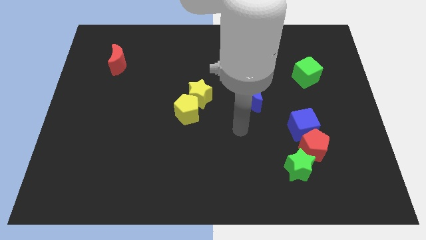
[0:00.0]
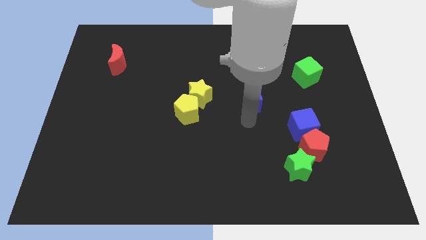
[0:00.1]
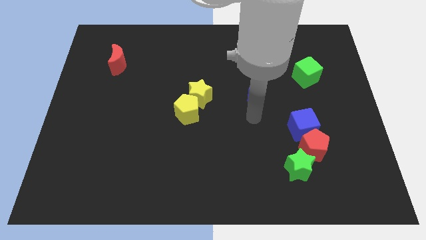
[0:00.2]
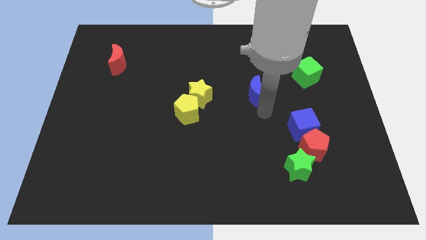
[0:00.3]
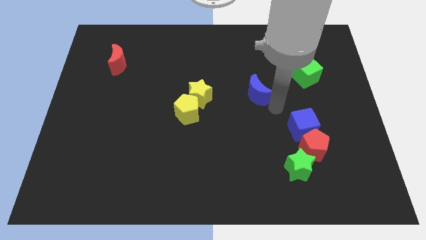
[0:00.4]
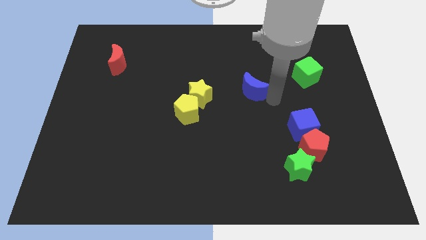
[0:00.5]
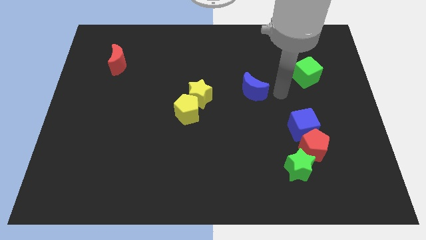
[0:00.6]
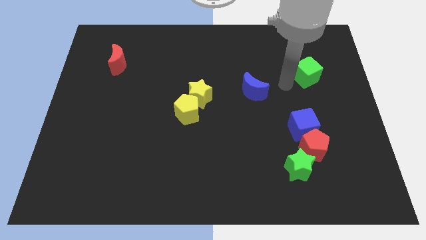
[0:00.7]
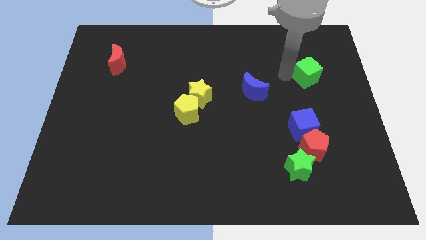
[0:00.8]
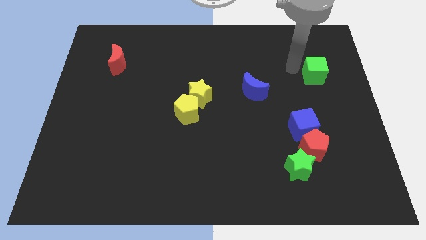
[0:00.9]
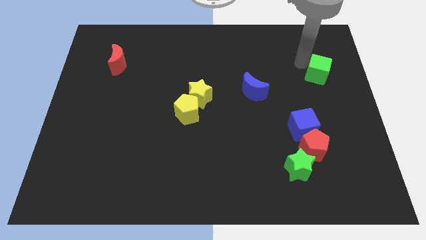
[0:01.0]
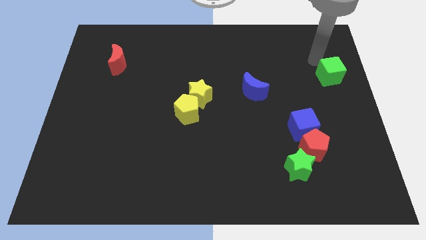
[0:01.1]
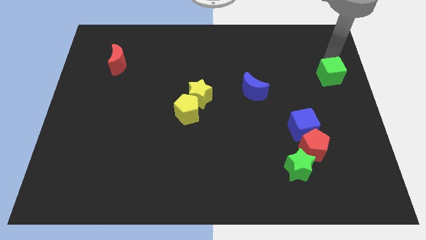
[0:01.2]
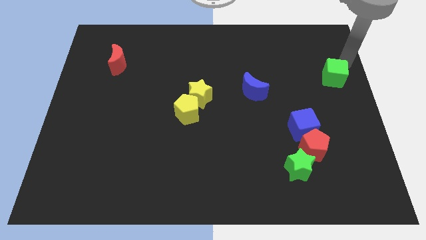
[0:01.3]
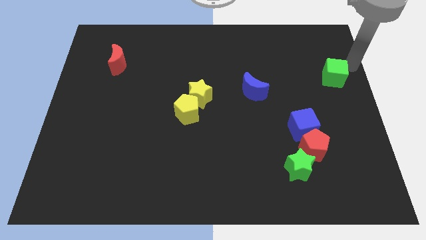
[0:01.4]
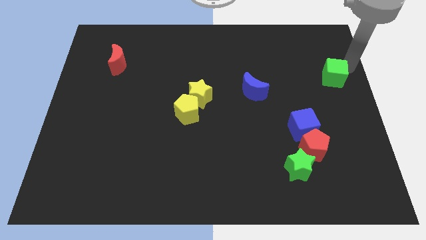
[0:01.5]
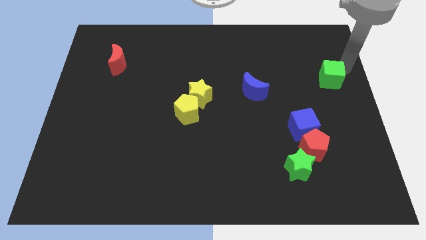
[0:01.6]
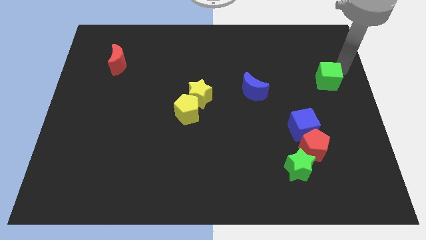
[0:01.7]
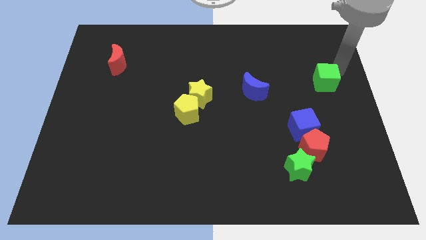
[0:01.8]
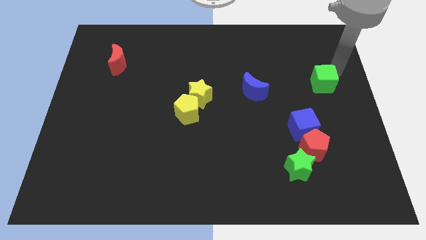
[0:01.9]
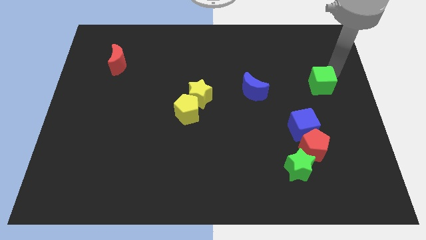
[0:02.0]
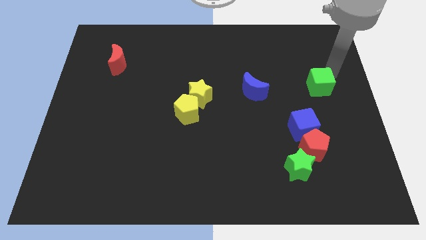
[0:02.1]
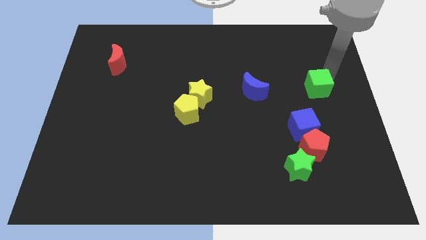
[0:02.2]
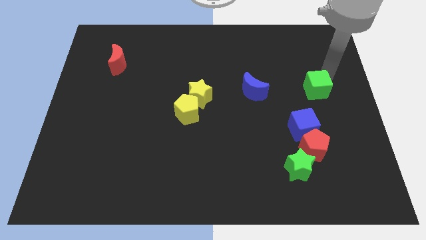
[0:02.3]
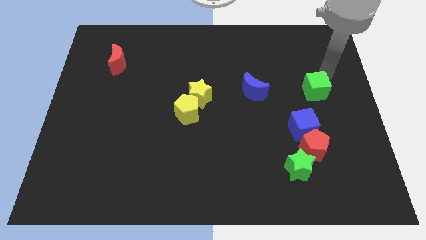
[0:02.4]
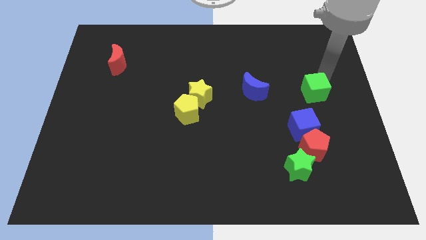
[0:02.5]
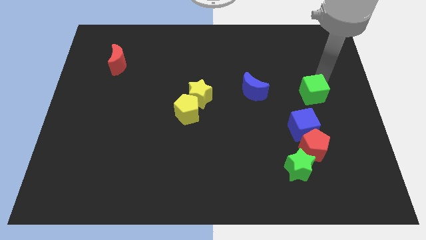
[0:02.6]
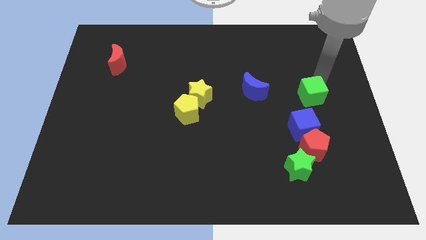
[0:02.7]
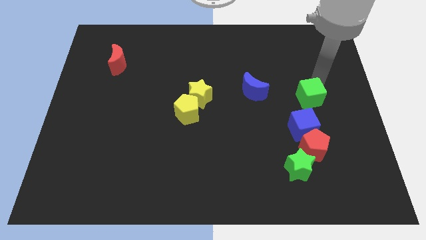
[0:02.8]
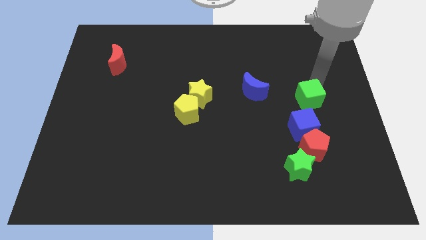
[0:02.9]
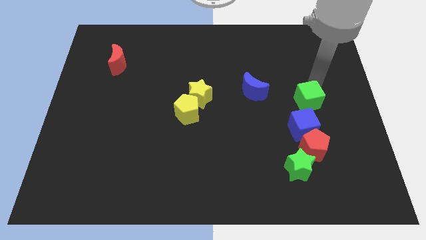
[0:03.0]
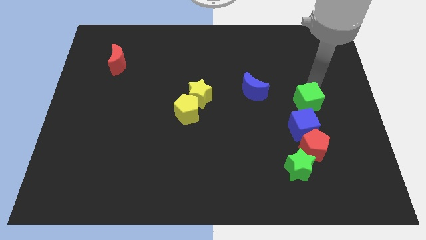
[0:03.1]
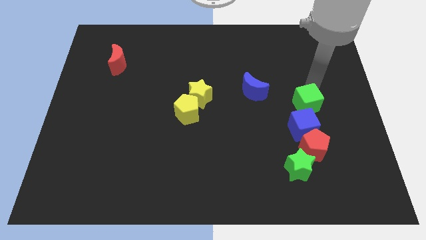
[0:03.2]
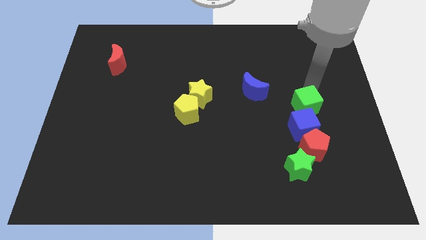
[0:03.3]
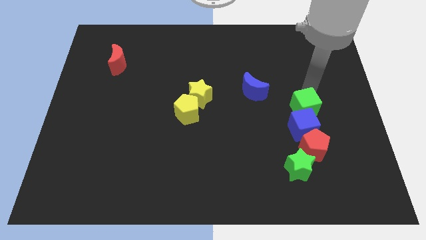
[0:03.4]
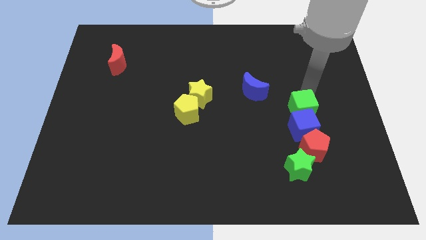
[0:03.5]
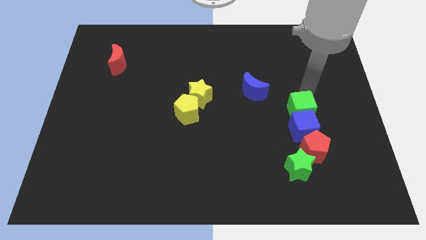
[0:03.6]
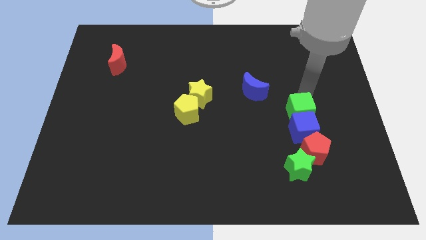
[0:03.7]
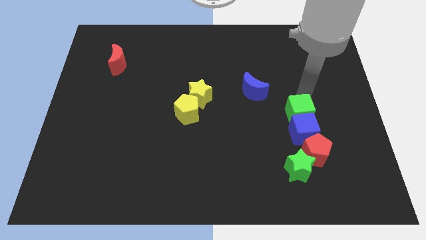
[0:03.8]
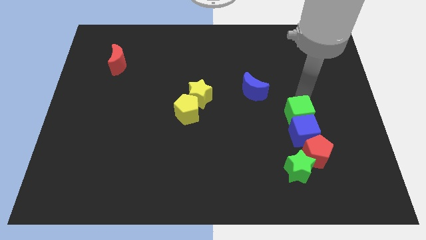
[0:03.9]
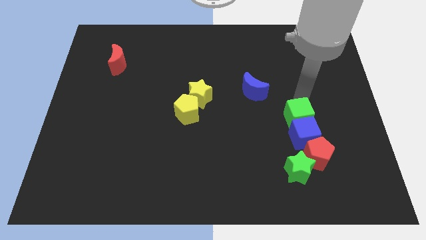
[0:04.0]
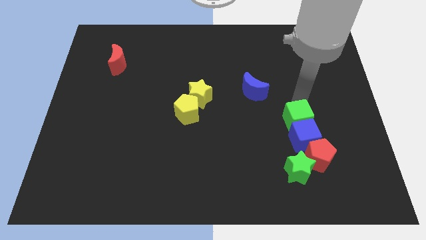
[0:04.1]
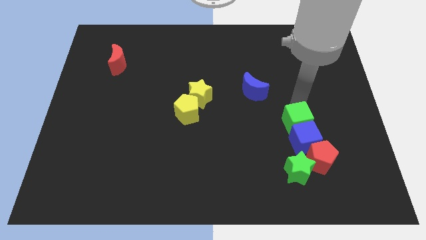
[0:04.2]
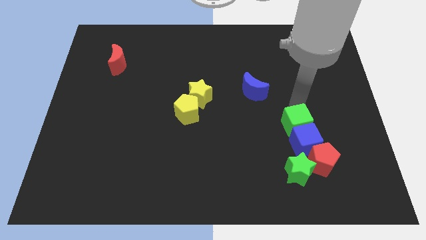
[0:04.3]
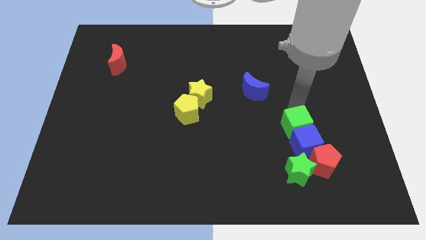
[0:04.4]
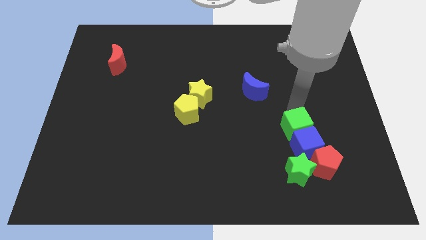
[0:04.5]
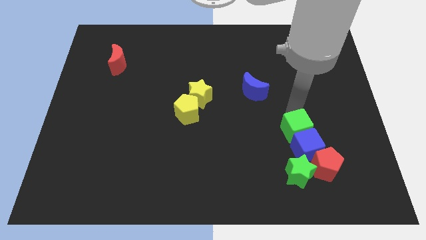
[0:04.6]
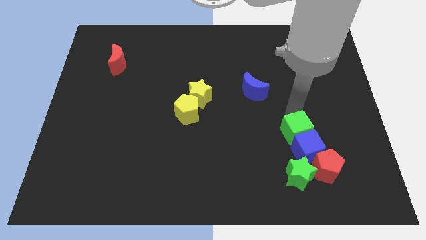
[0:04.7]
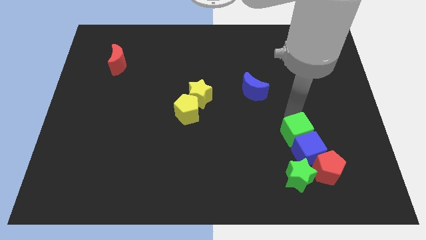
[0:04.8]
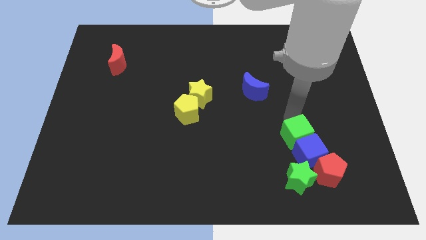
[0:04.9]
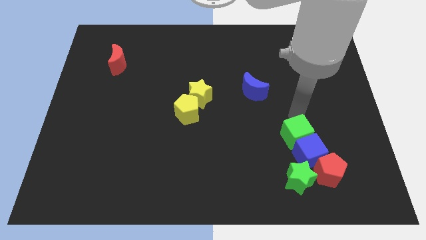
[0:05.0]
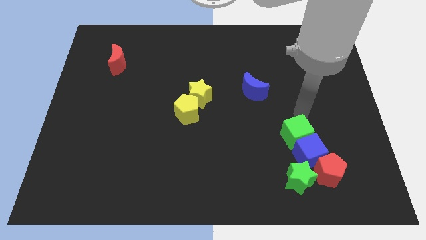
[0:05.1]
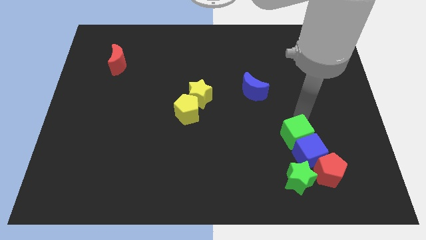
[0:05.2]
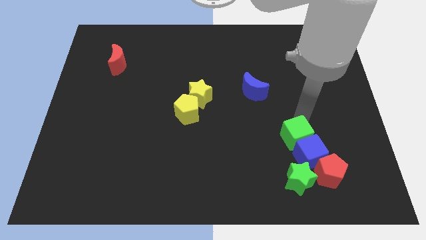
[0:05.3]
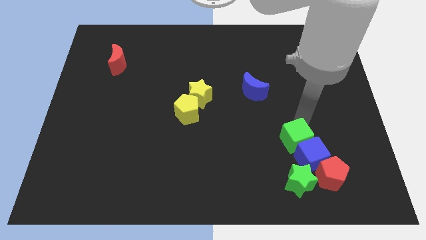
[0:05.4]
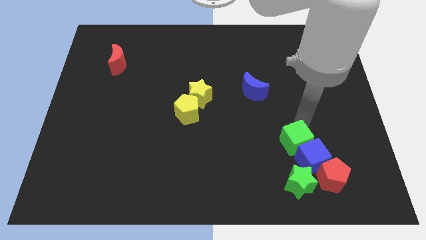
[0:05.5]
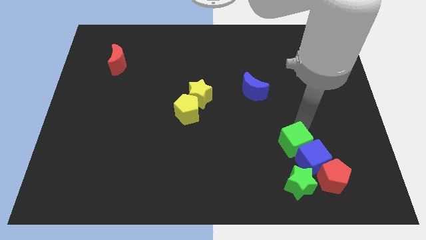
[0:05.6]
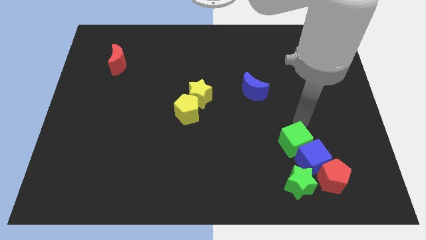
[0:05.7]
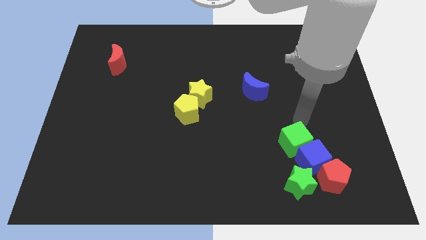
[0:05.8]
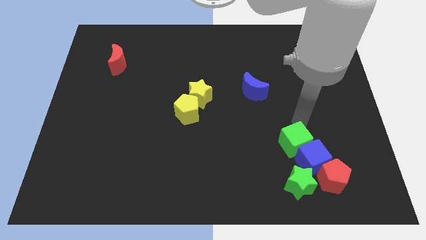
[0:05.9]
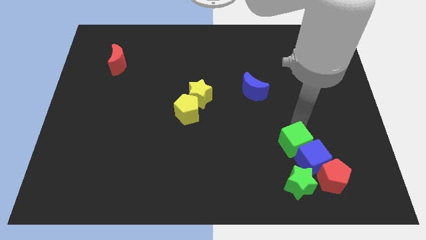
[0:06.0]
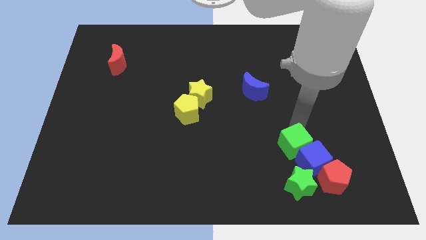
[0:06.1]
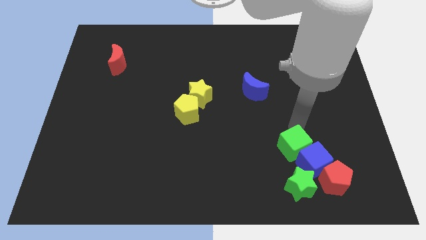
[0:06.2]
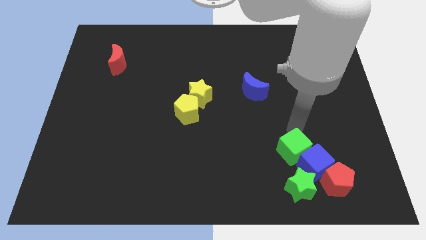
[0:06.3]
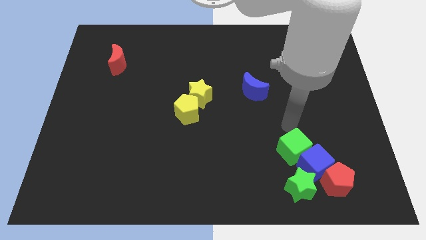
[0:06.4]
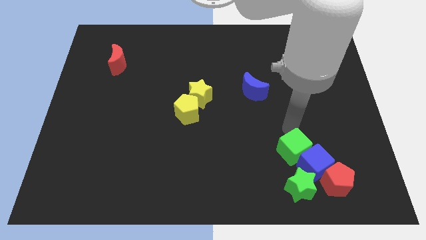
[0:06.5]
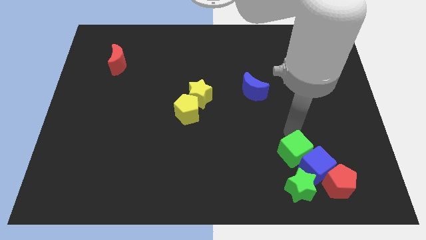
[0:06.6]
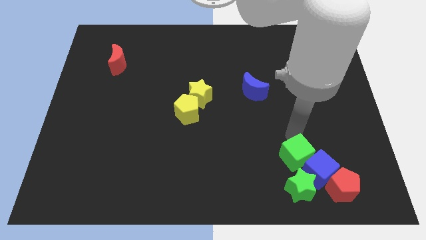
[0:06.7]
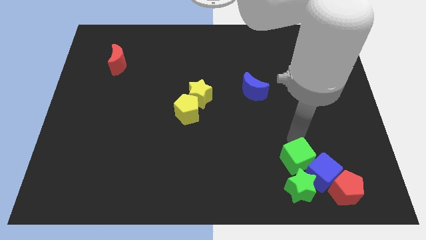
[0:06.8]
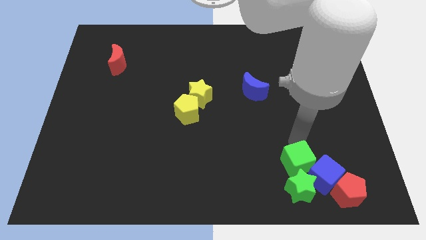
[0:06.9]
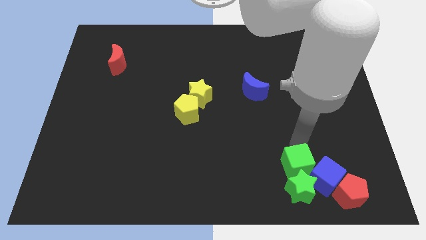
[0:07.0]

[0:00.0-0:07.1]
push the green cube to the green star

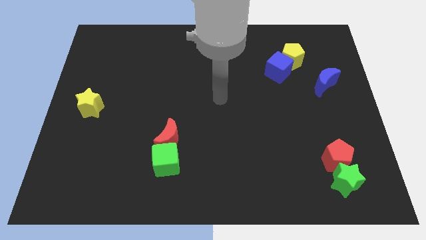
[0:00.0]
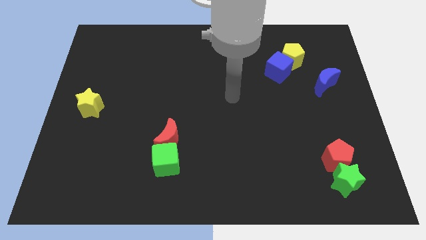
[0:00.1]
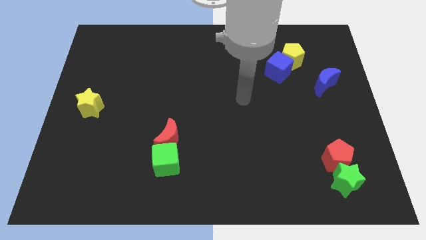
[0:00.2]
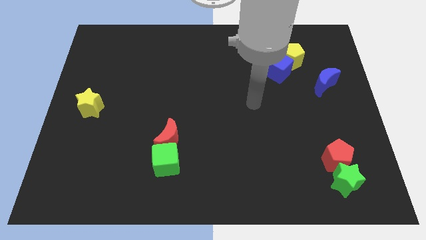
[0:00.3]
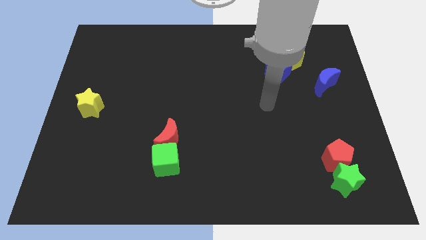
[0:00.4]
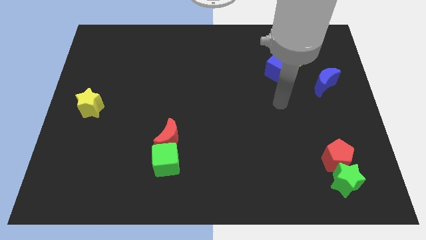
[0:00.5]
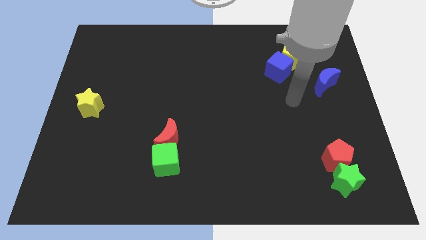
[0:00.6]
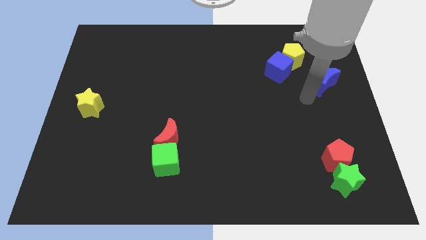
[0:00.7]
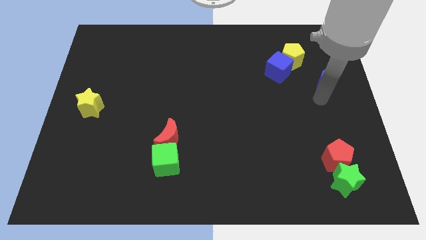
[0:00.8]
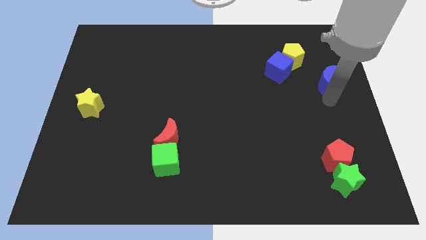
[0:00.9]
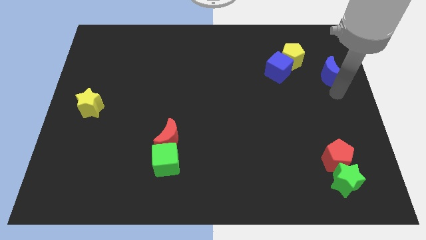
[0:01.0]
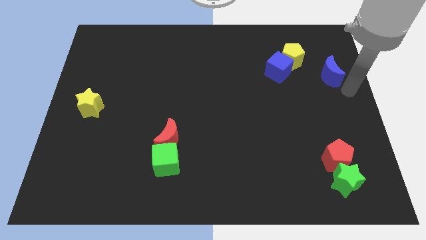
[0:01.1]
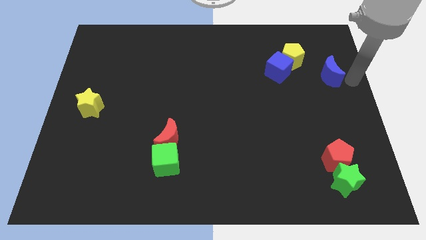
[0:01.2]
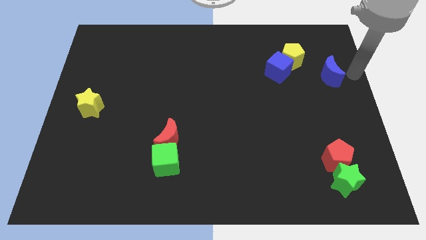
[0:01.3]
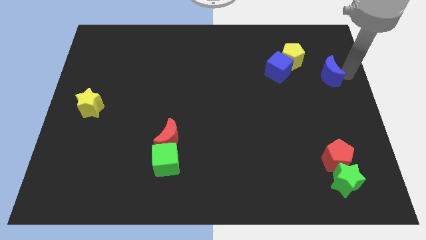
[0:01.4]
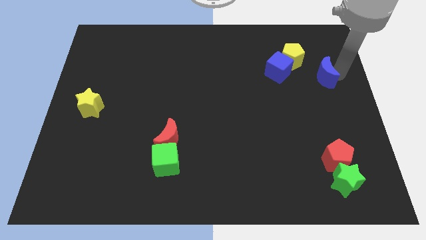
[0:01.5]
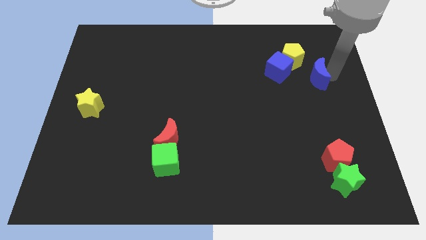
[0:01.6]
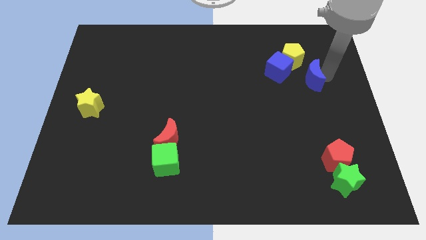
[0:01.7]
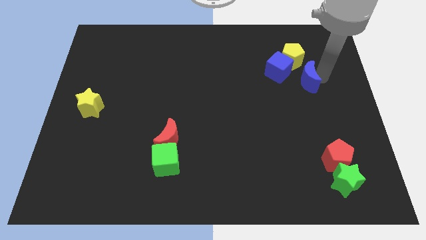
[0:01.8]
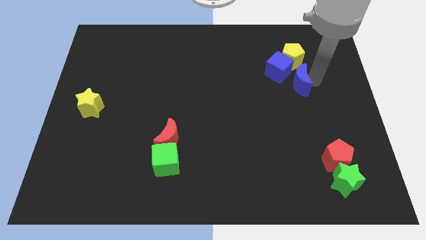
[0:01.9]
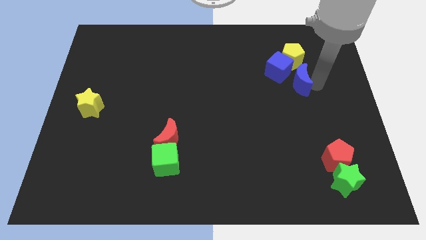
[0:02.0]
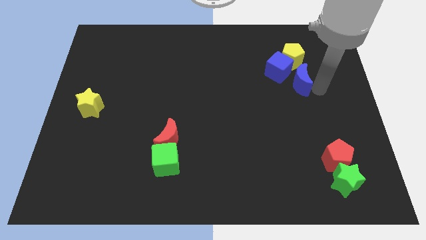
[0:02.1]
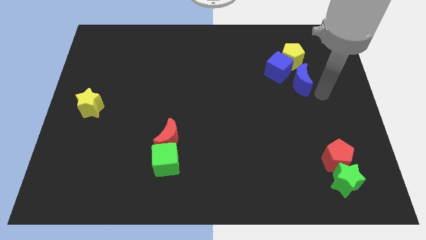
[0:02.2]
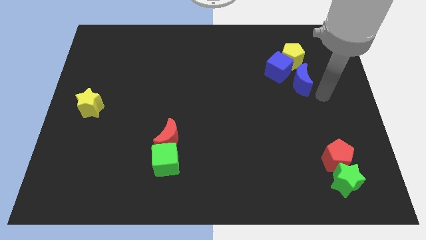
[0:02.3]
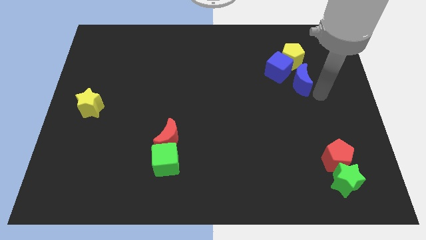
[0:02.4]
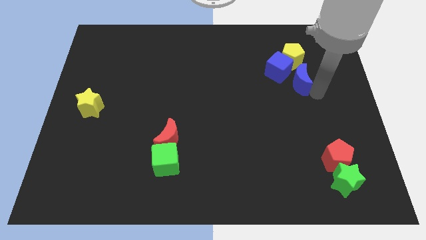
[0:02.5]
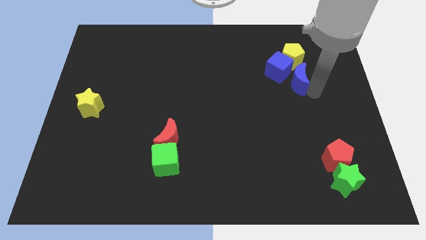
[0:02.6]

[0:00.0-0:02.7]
put the blue moon next to the blue cube
